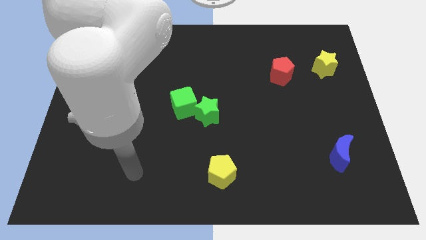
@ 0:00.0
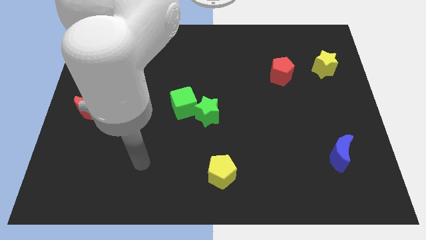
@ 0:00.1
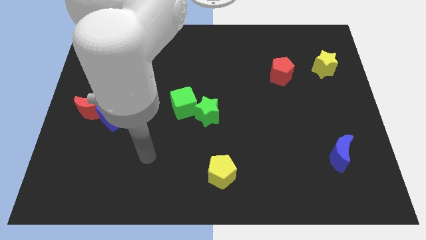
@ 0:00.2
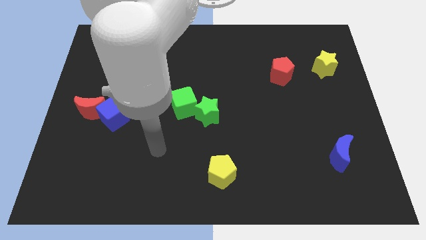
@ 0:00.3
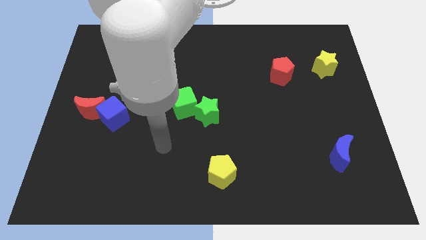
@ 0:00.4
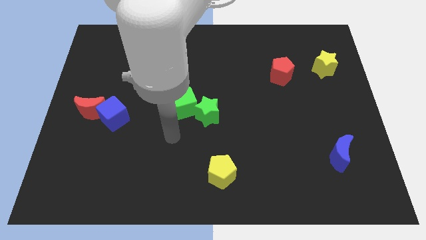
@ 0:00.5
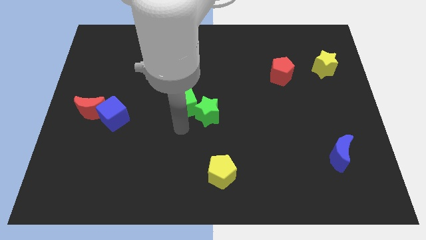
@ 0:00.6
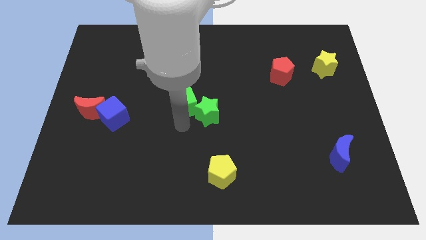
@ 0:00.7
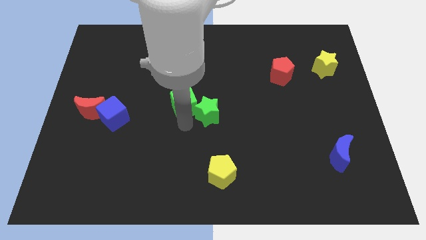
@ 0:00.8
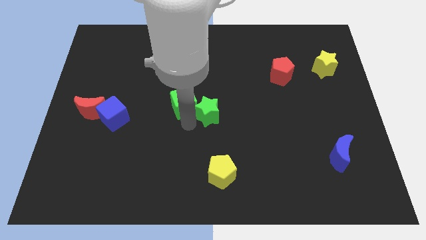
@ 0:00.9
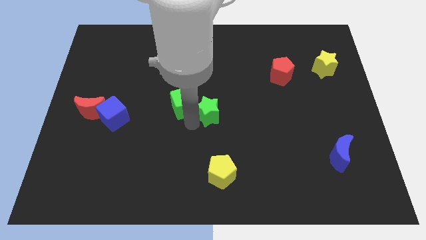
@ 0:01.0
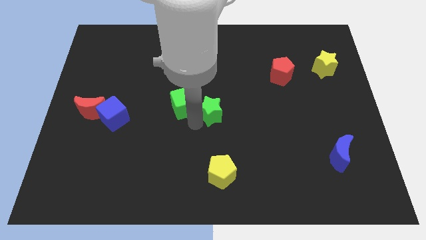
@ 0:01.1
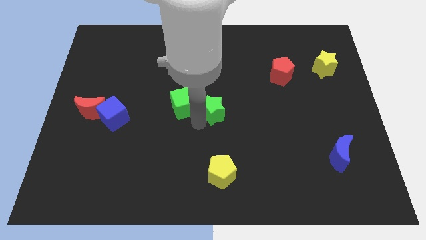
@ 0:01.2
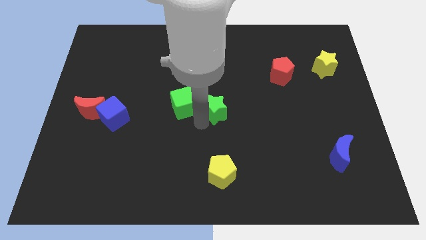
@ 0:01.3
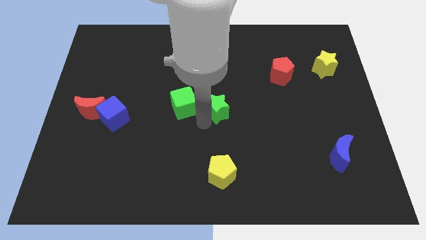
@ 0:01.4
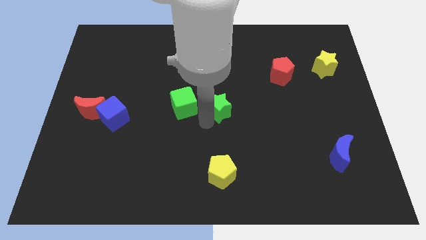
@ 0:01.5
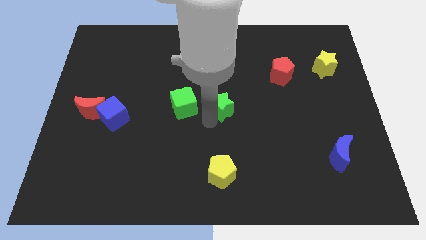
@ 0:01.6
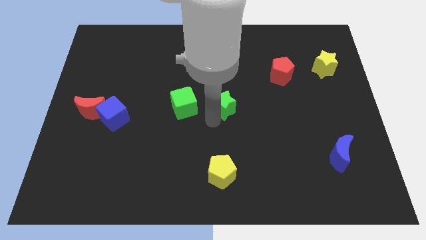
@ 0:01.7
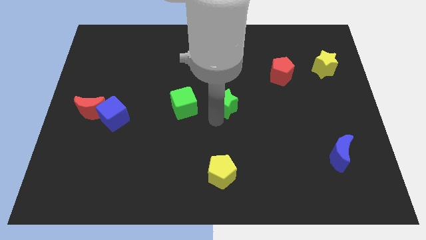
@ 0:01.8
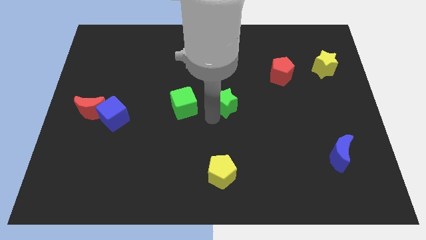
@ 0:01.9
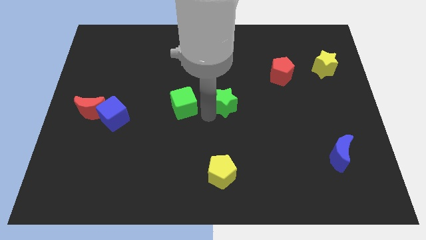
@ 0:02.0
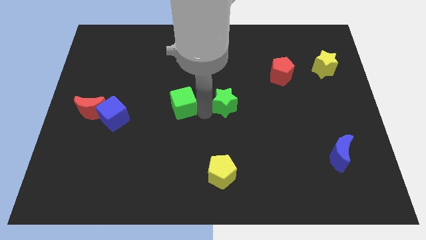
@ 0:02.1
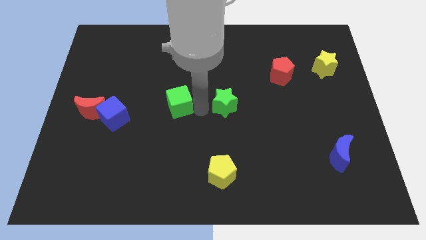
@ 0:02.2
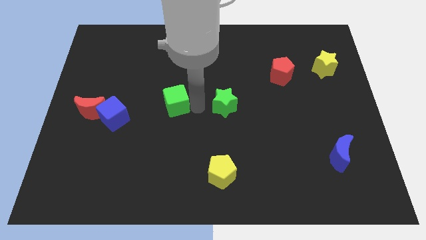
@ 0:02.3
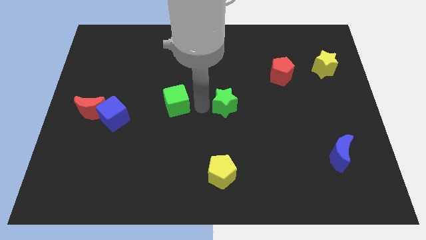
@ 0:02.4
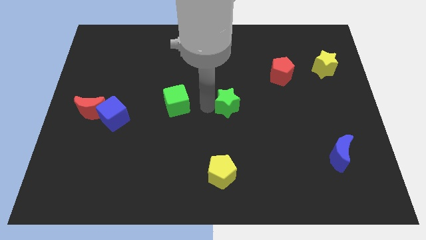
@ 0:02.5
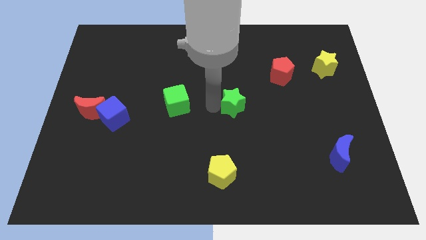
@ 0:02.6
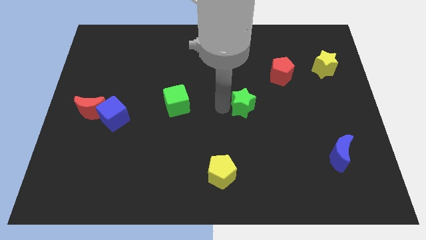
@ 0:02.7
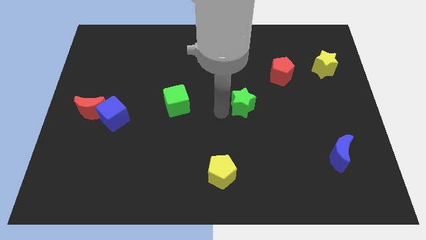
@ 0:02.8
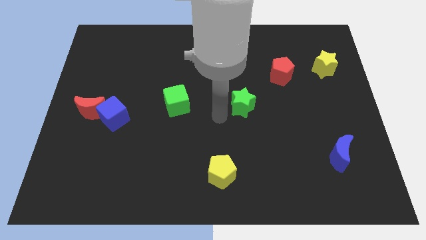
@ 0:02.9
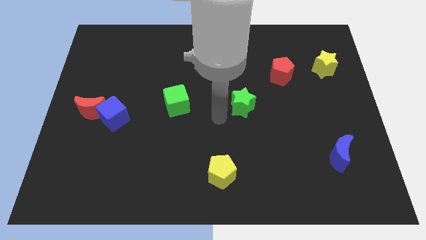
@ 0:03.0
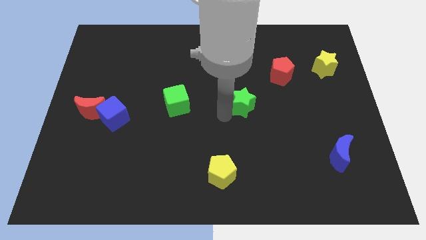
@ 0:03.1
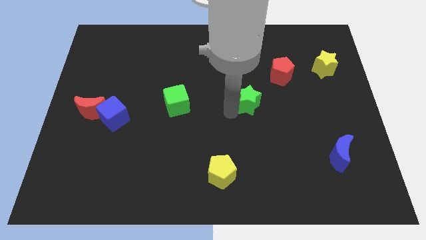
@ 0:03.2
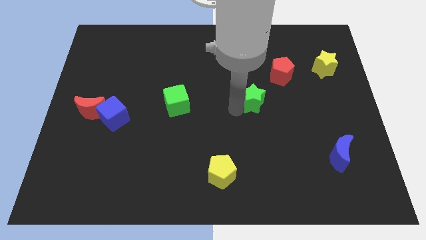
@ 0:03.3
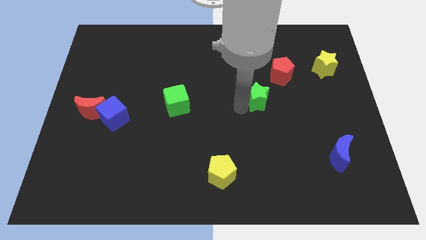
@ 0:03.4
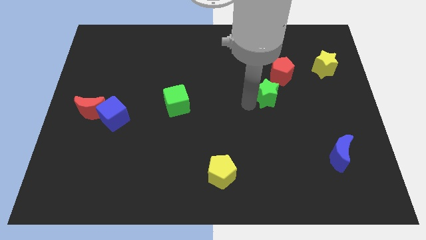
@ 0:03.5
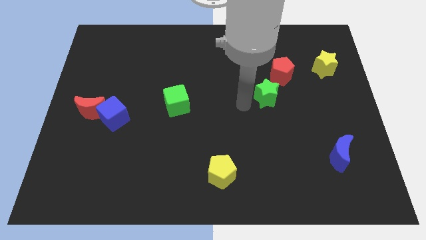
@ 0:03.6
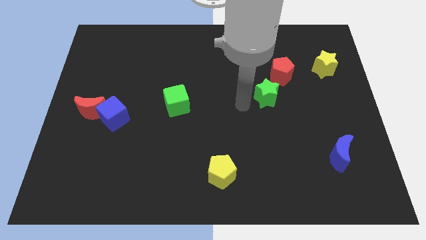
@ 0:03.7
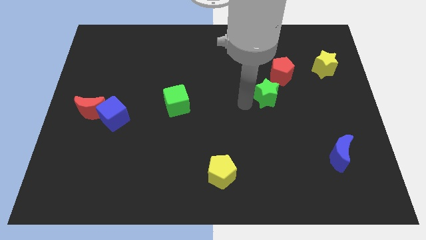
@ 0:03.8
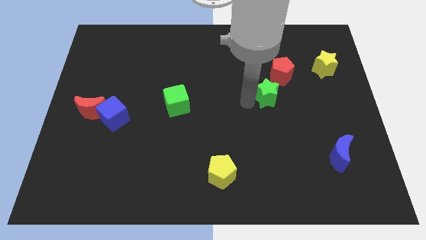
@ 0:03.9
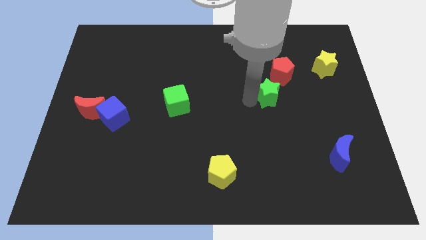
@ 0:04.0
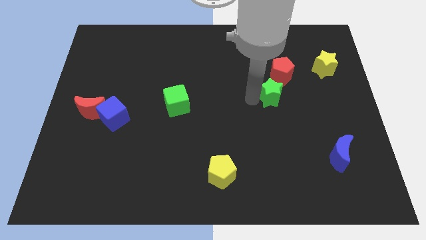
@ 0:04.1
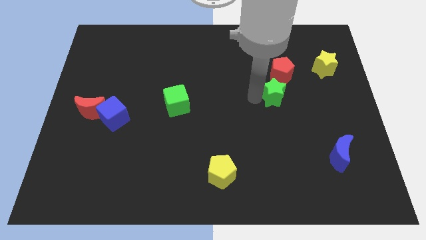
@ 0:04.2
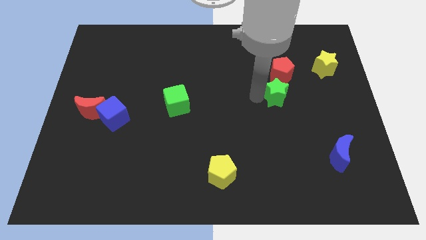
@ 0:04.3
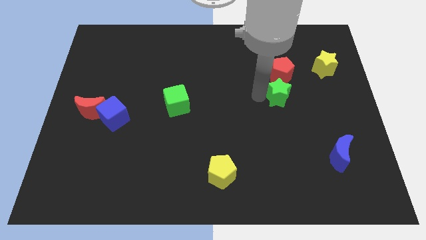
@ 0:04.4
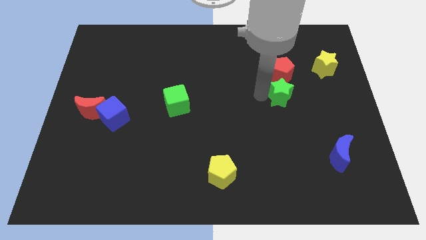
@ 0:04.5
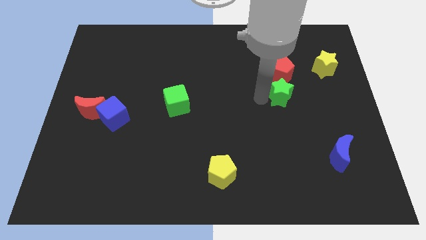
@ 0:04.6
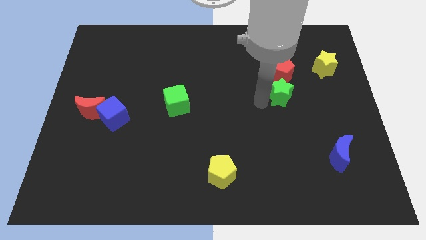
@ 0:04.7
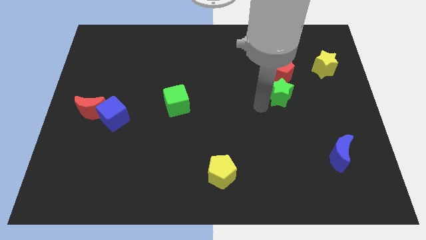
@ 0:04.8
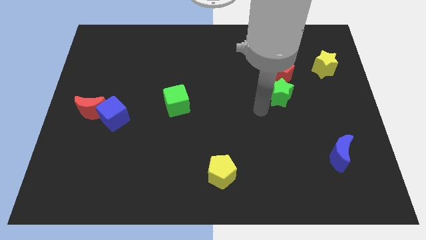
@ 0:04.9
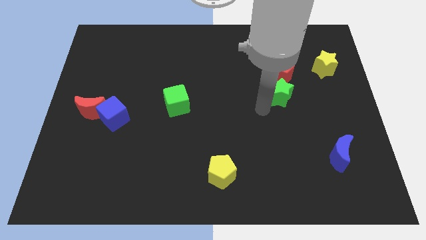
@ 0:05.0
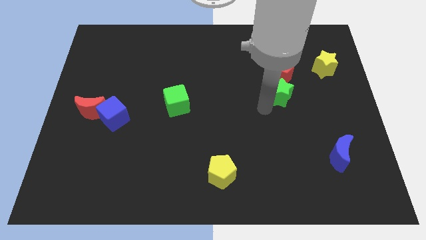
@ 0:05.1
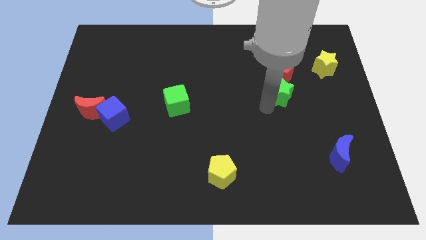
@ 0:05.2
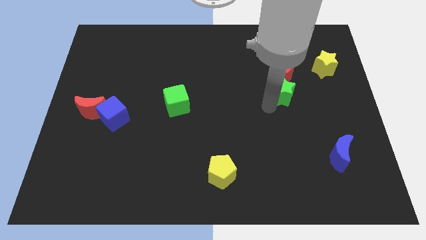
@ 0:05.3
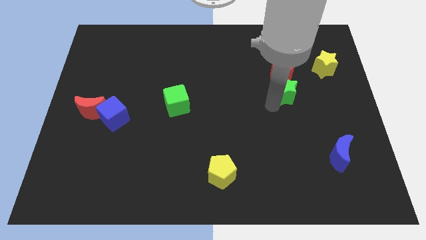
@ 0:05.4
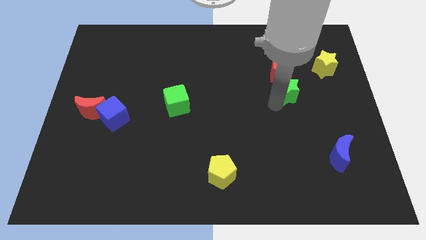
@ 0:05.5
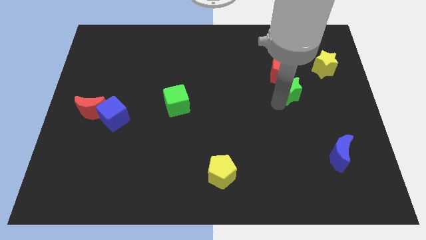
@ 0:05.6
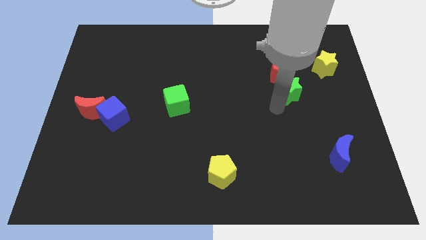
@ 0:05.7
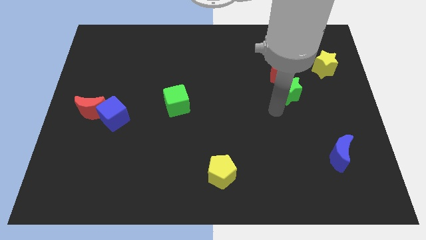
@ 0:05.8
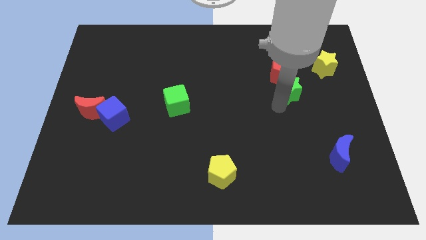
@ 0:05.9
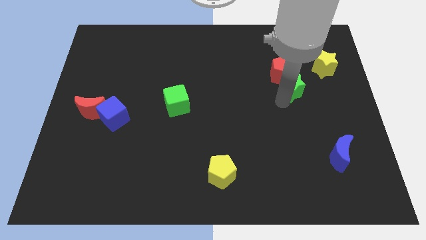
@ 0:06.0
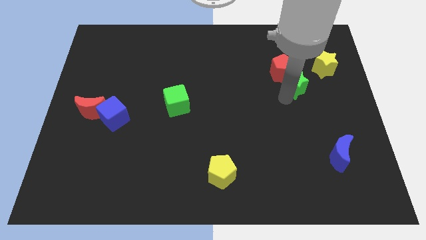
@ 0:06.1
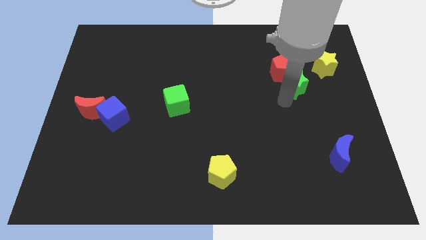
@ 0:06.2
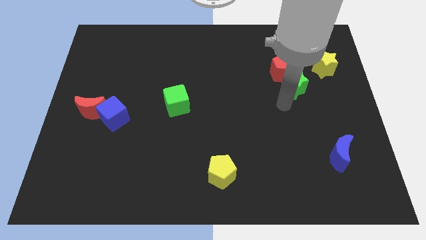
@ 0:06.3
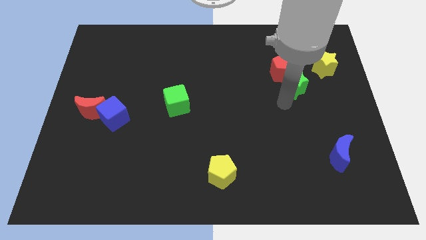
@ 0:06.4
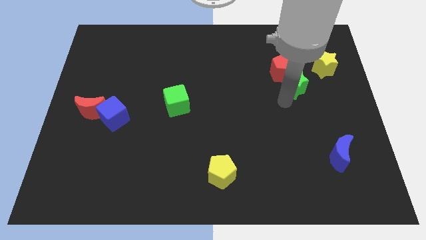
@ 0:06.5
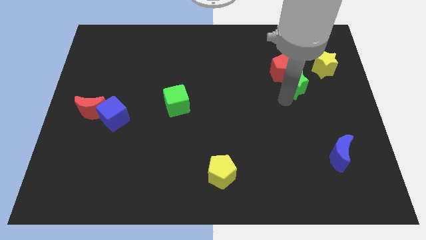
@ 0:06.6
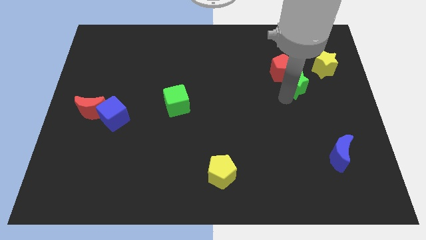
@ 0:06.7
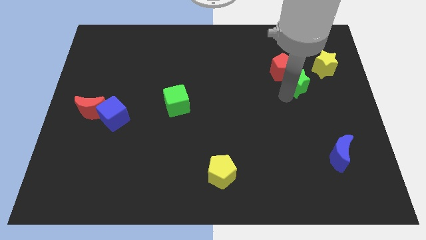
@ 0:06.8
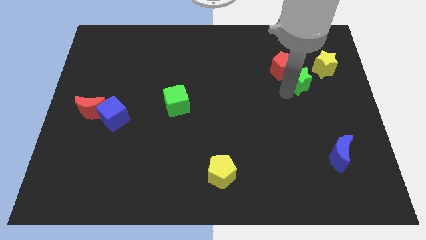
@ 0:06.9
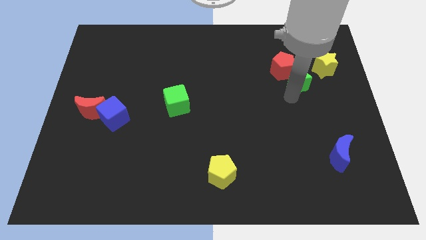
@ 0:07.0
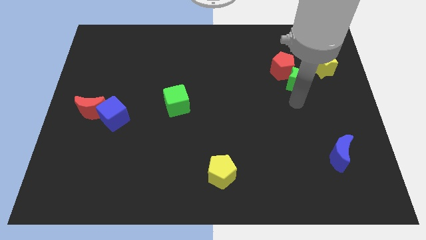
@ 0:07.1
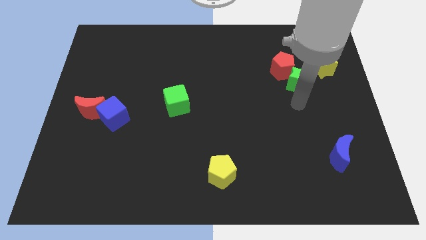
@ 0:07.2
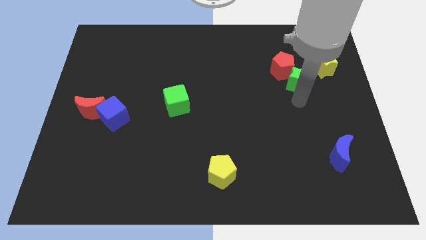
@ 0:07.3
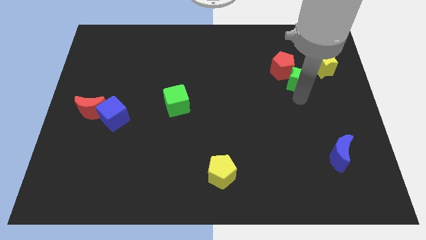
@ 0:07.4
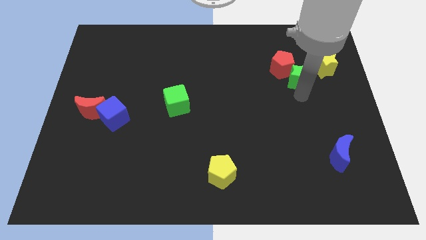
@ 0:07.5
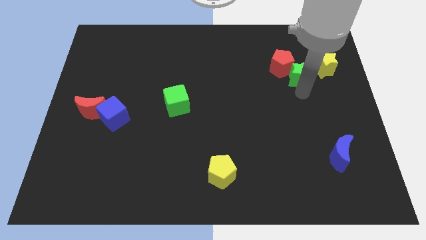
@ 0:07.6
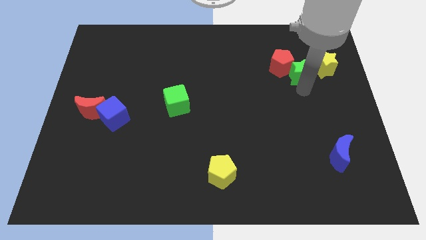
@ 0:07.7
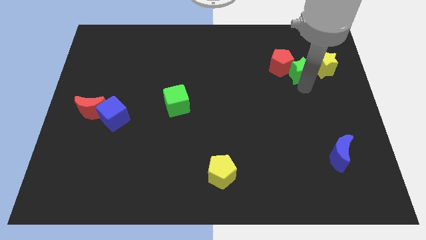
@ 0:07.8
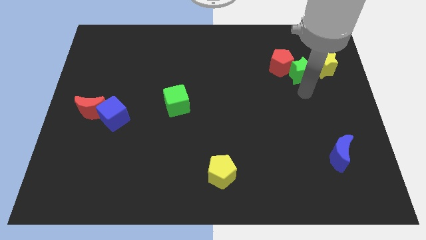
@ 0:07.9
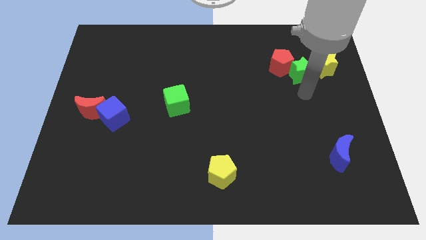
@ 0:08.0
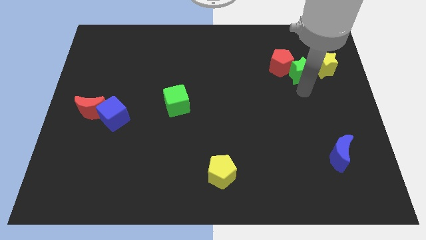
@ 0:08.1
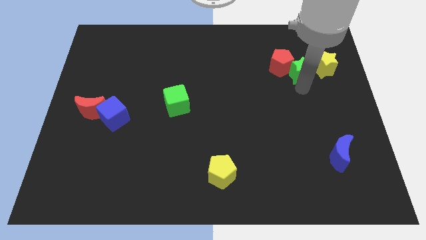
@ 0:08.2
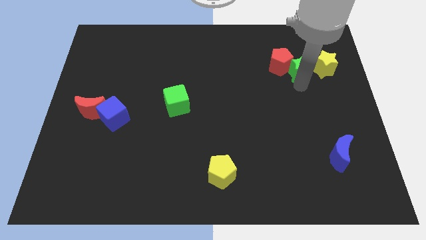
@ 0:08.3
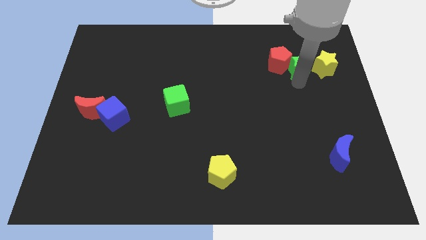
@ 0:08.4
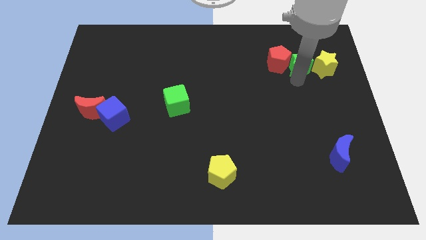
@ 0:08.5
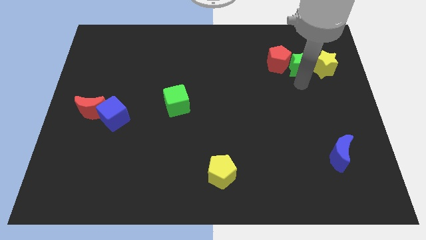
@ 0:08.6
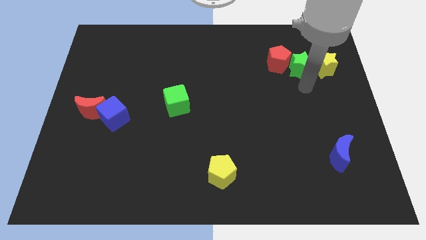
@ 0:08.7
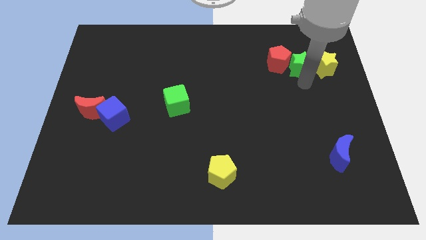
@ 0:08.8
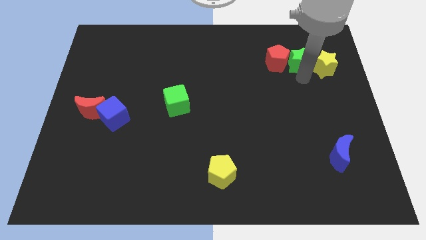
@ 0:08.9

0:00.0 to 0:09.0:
move the green star diagonally up and to the right of the red pentagon
